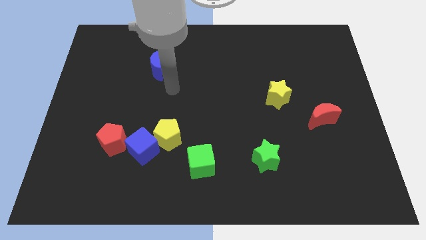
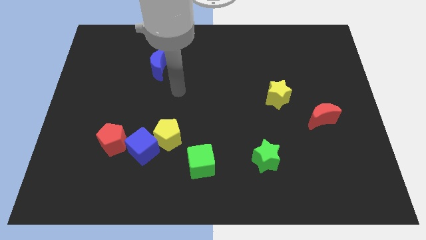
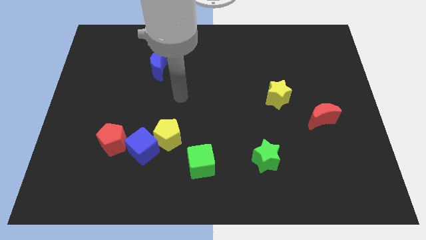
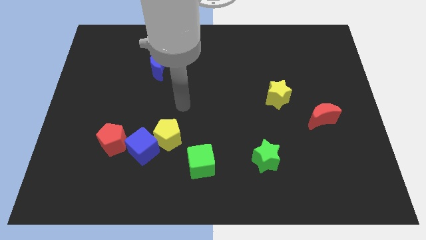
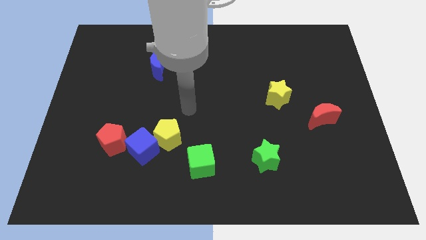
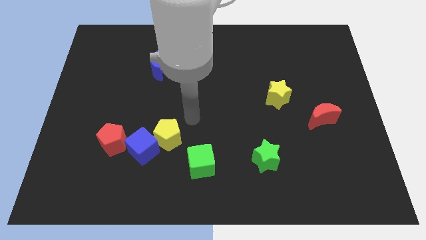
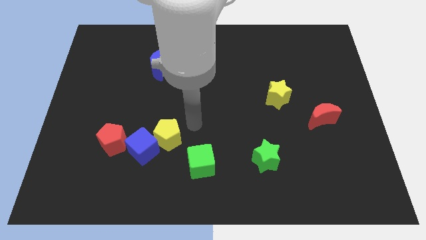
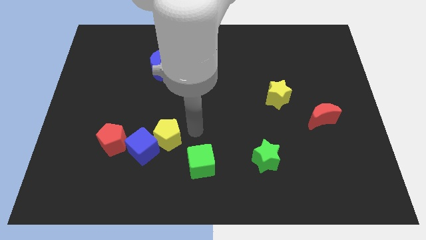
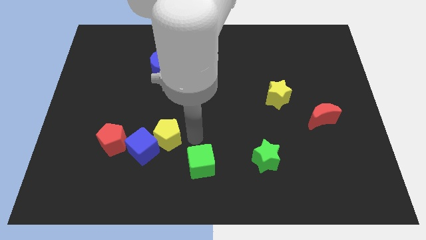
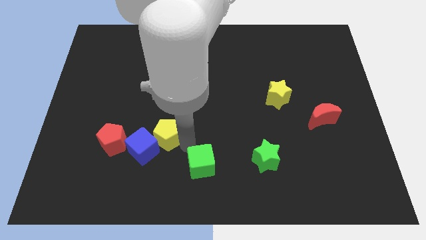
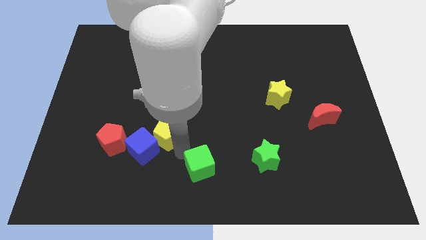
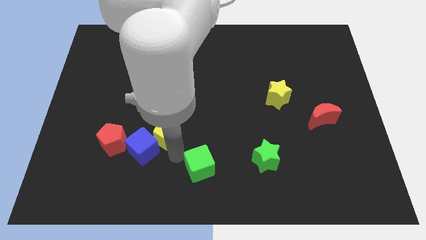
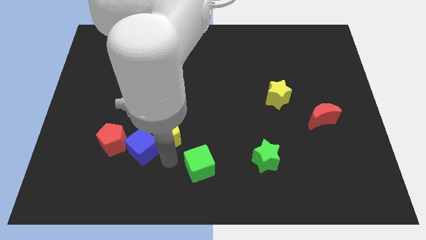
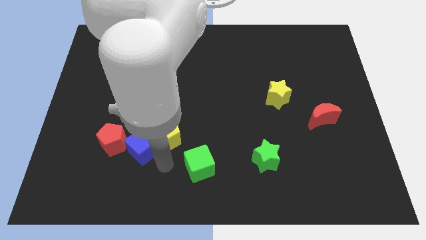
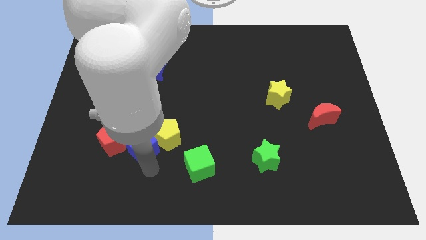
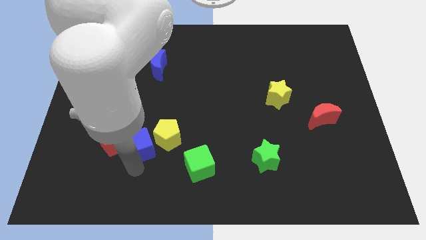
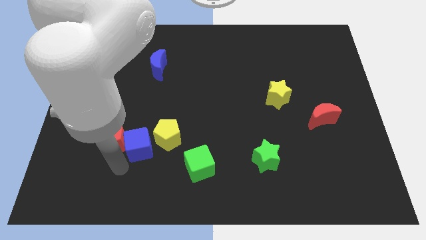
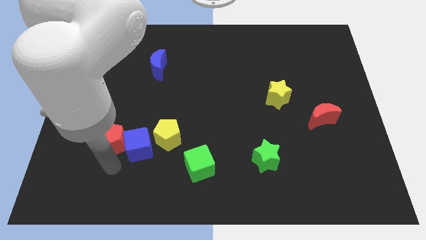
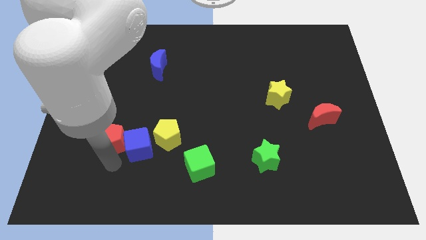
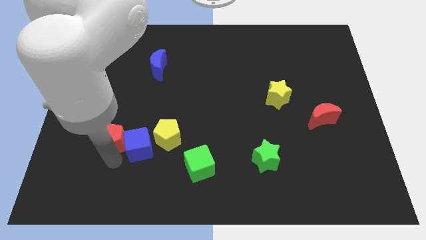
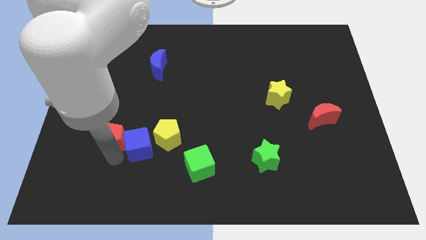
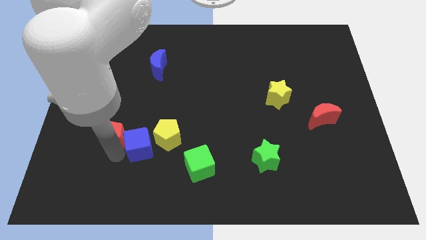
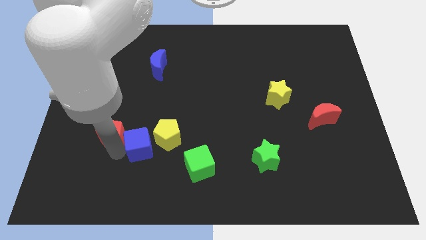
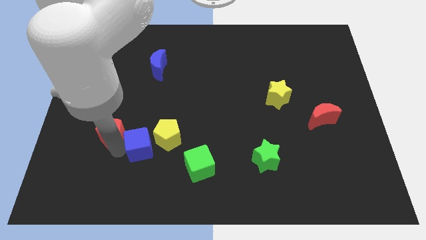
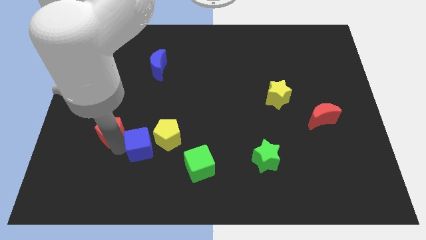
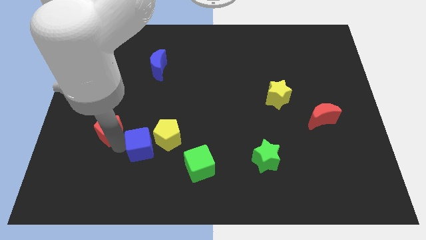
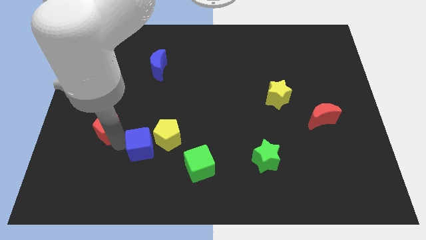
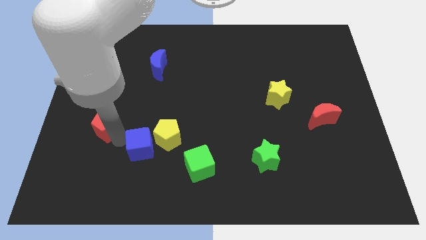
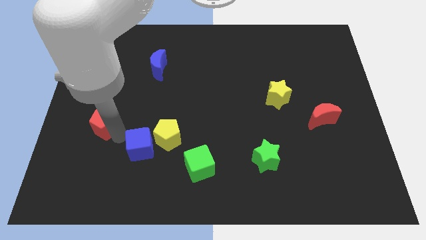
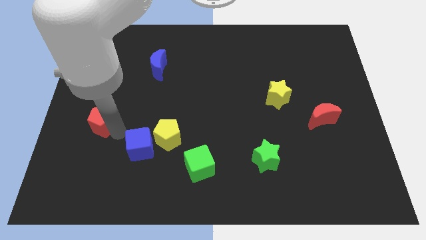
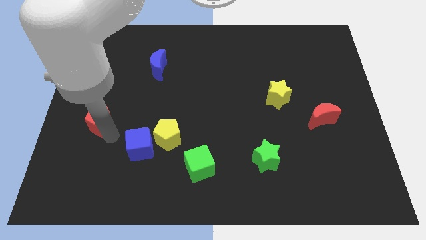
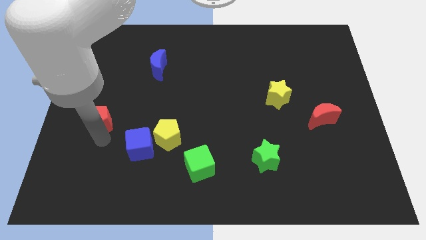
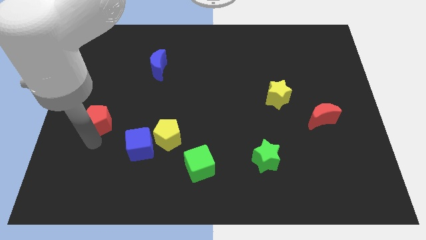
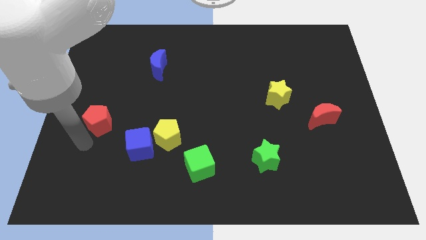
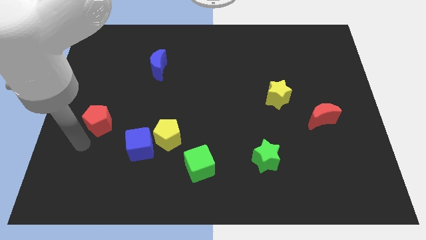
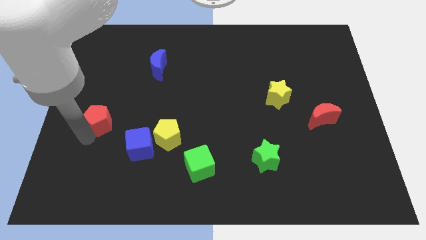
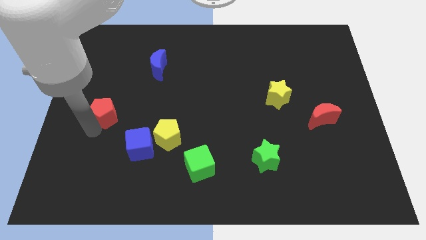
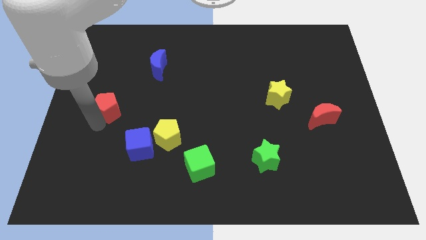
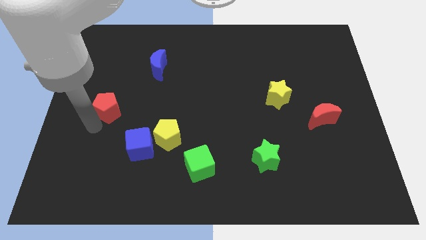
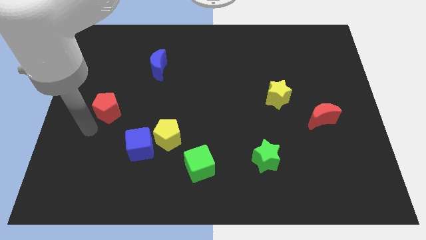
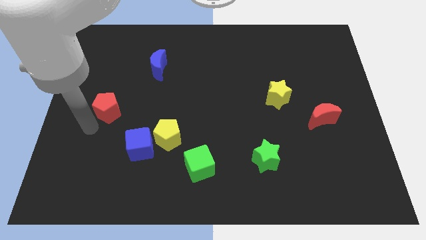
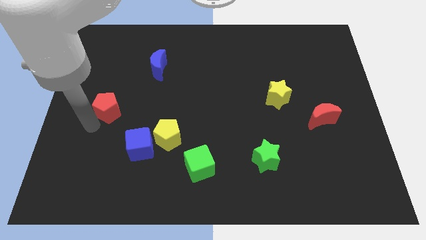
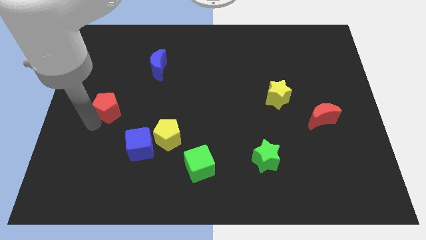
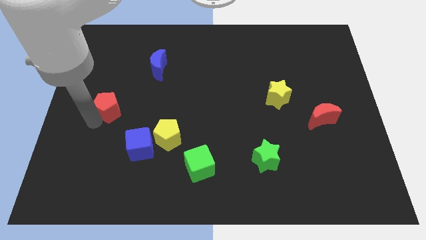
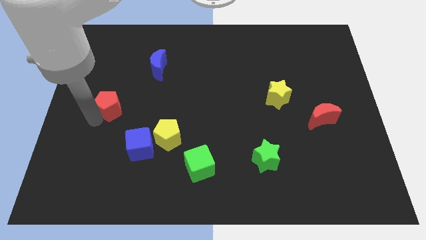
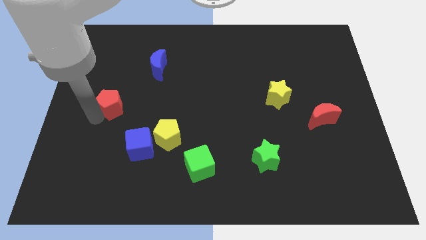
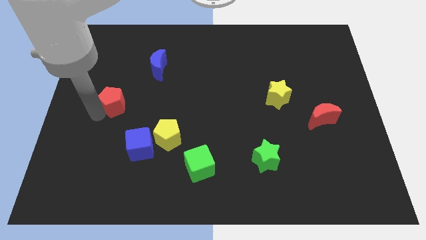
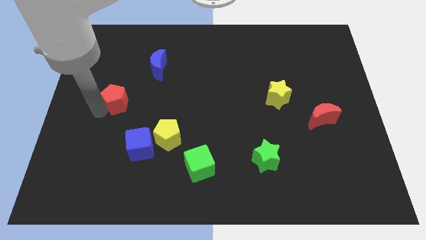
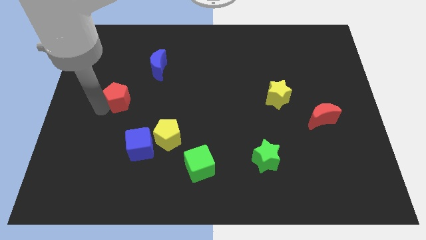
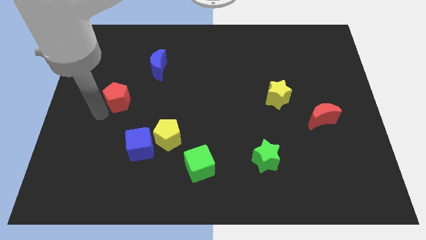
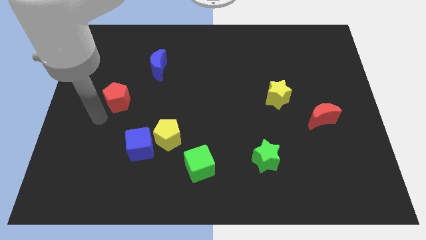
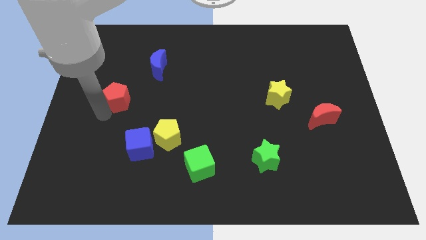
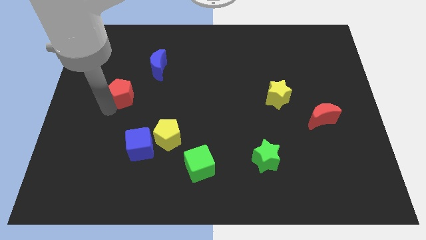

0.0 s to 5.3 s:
put the red pentagon to the bottom left of the blue moon

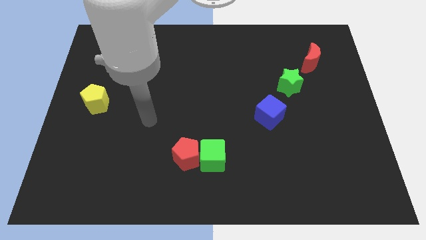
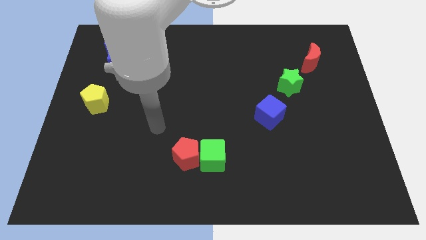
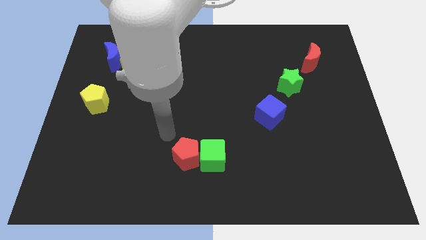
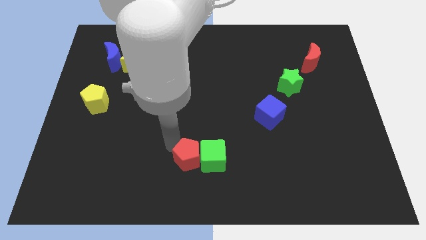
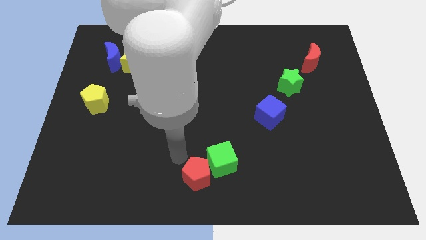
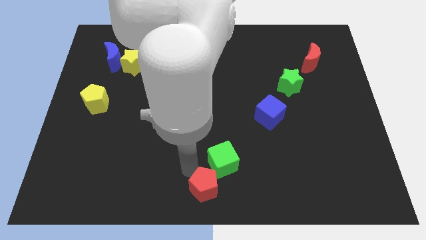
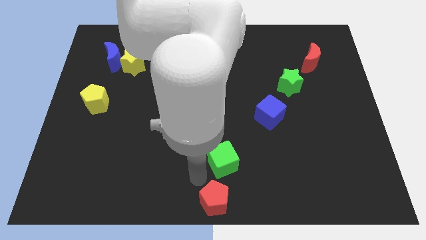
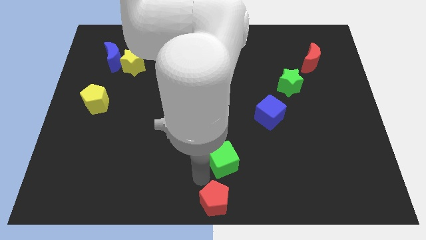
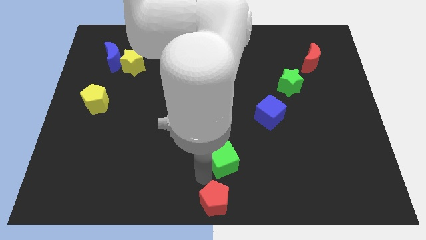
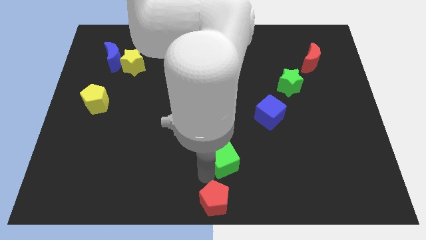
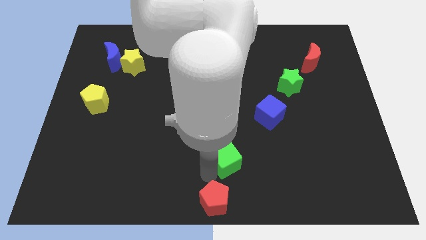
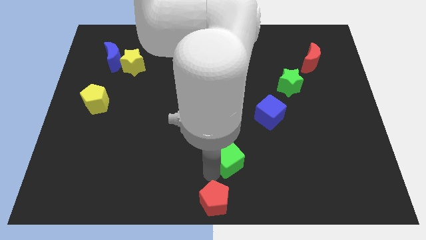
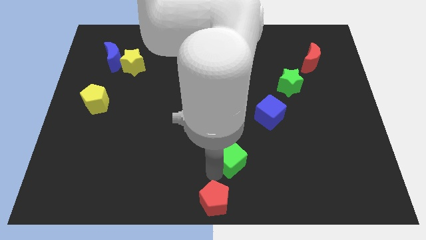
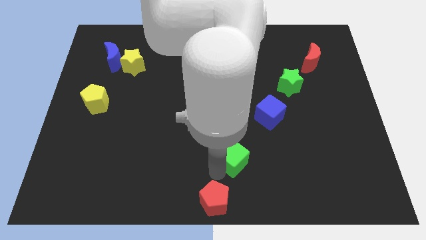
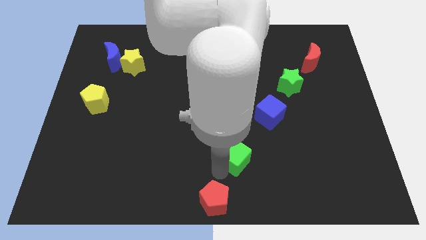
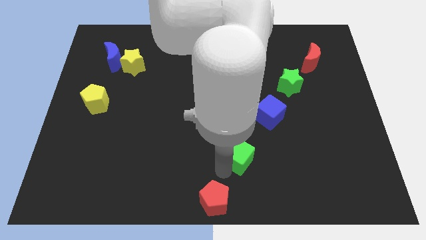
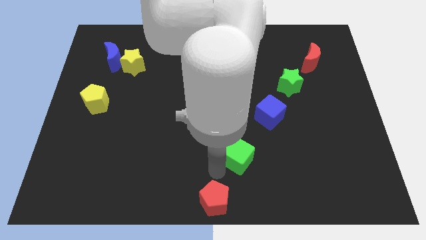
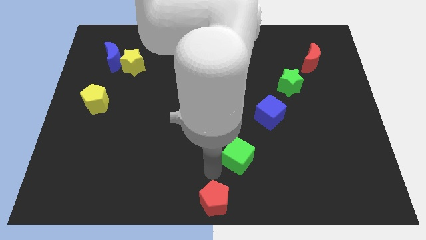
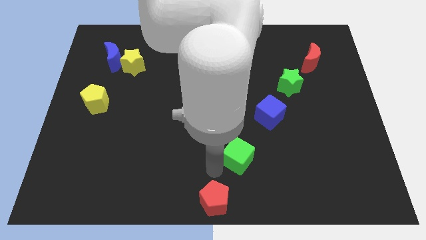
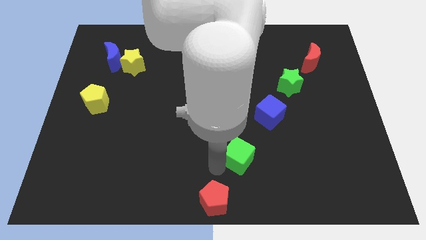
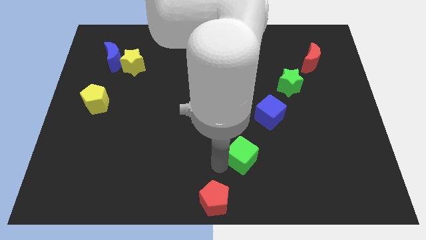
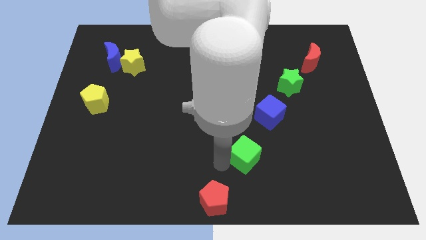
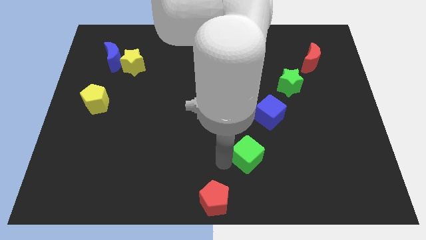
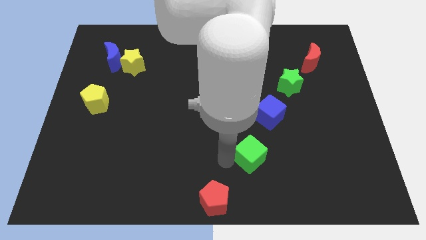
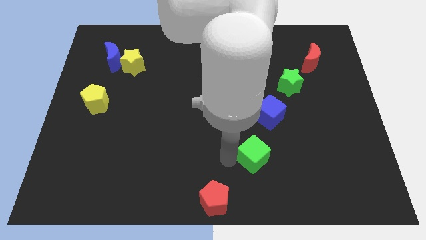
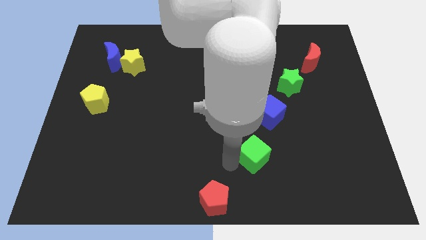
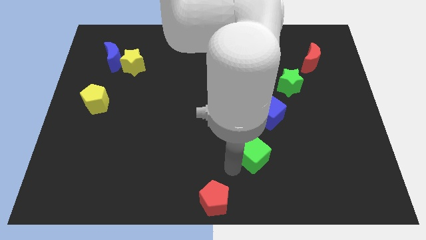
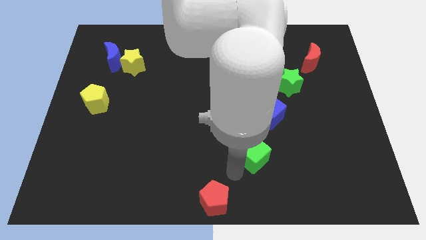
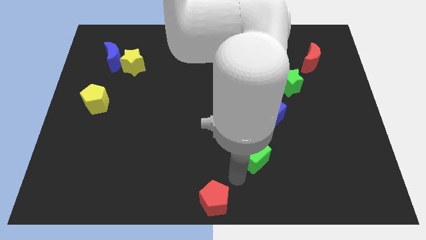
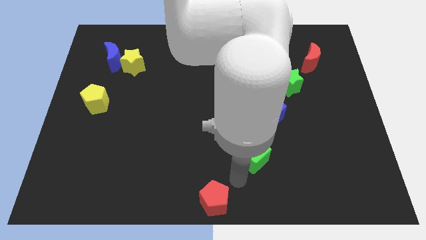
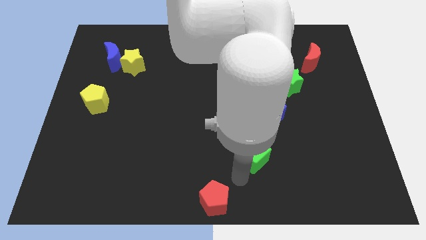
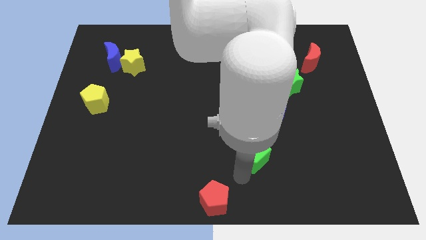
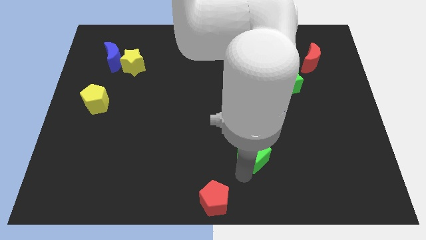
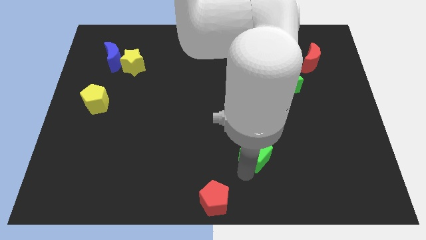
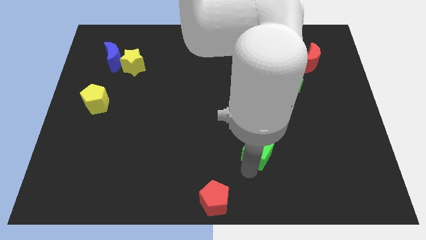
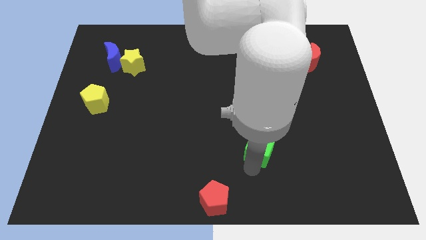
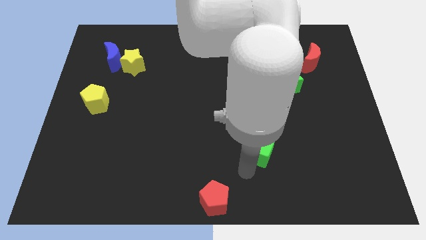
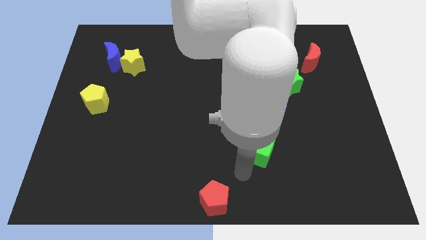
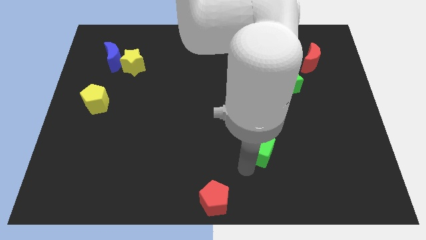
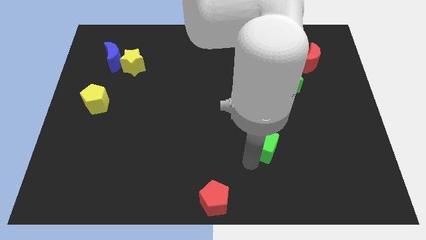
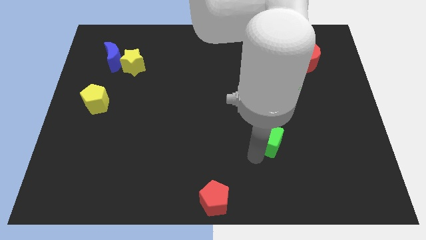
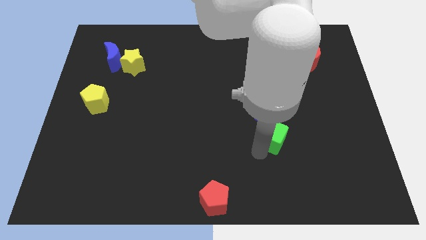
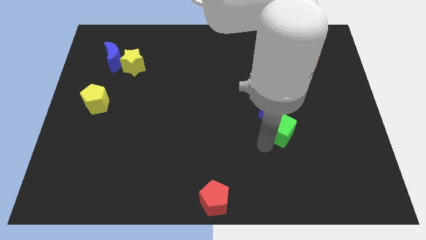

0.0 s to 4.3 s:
put the green cube to the bottom of the green star
